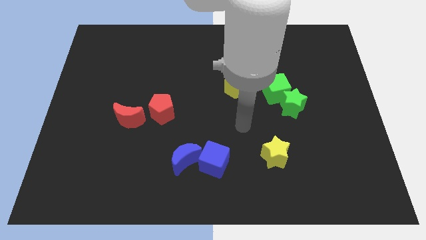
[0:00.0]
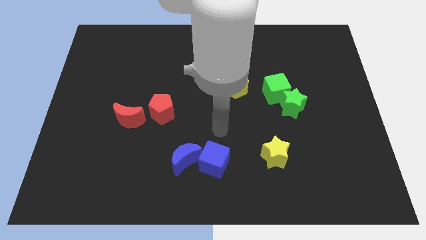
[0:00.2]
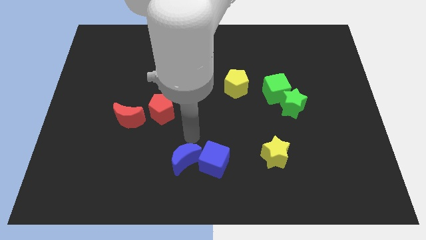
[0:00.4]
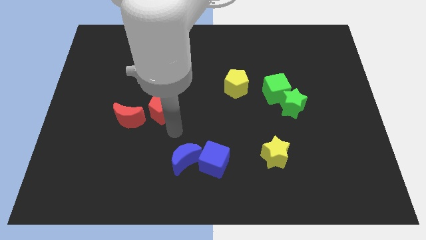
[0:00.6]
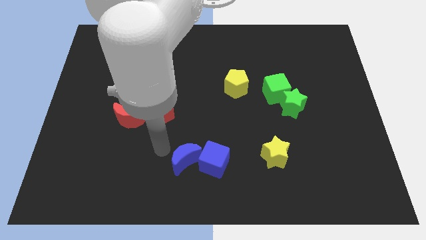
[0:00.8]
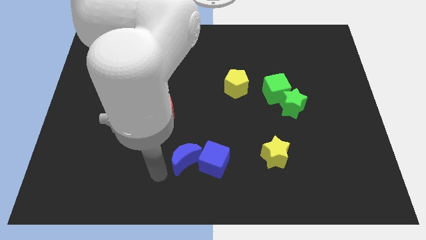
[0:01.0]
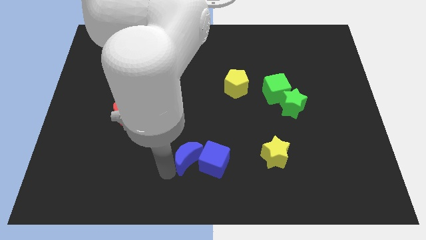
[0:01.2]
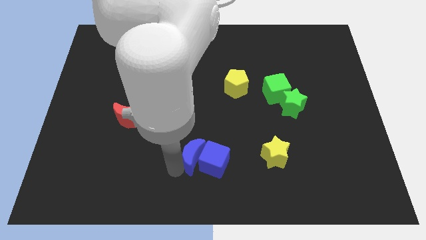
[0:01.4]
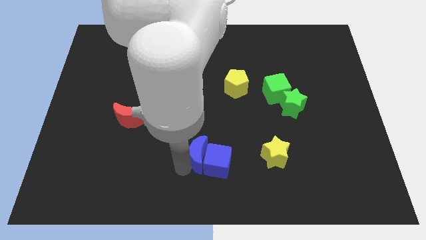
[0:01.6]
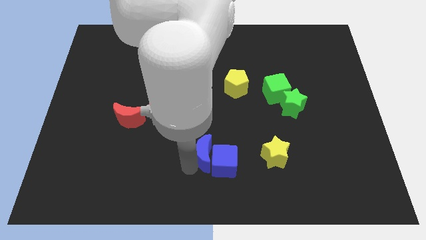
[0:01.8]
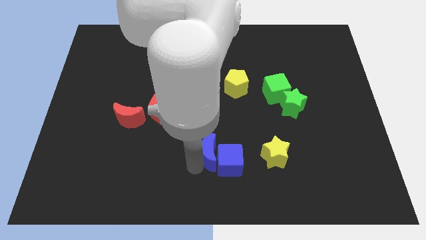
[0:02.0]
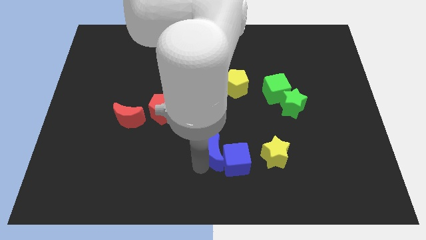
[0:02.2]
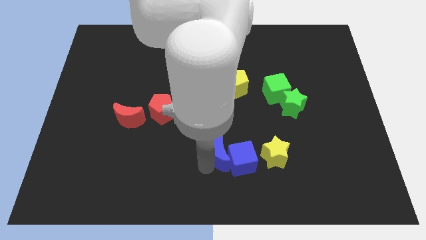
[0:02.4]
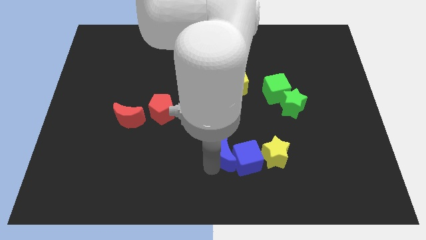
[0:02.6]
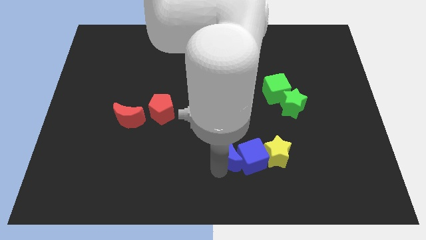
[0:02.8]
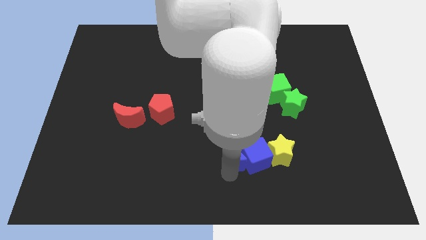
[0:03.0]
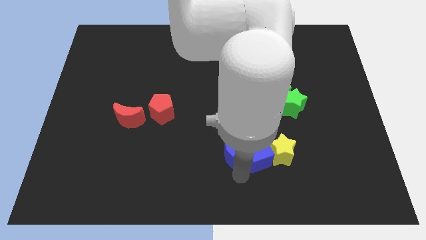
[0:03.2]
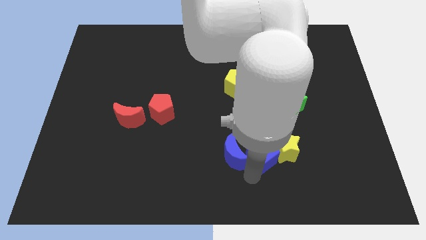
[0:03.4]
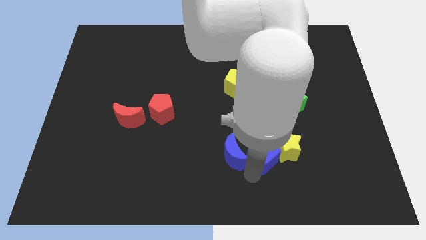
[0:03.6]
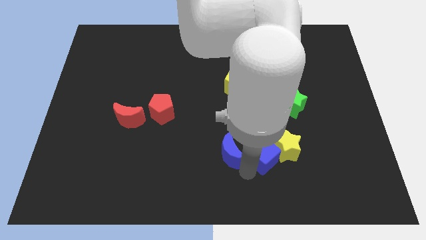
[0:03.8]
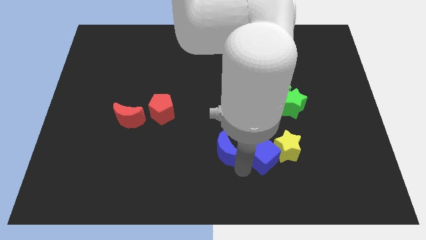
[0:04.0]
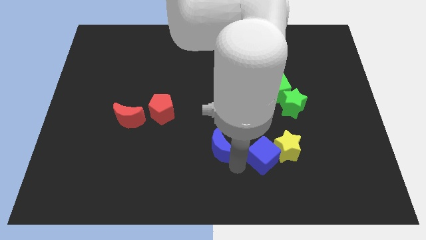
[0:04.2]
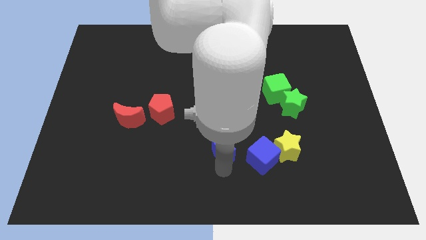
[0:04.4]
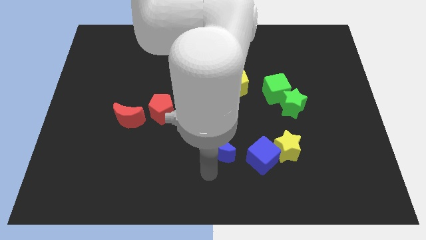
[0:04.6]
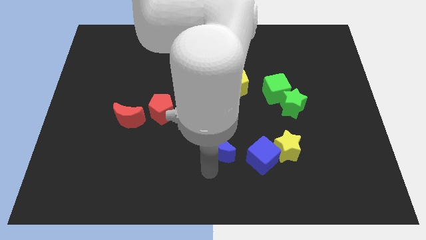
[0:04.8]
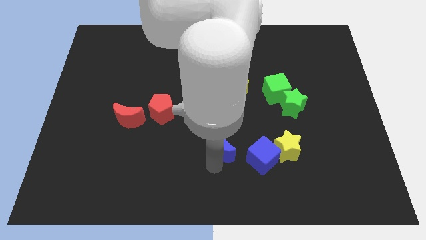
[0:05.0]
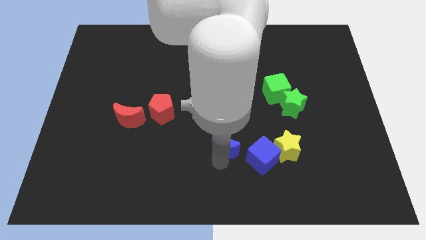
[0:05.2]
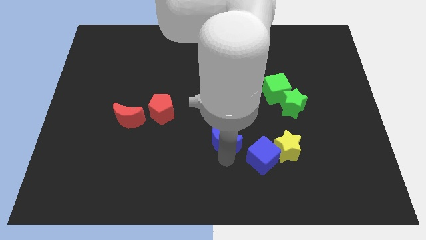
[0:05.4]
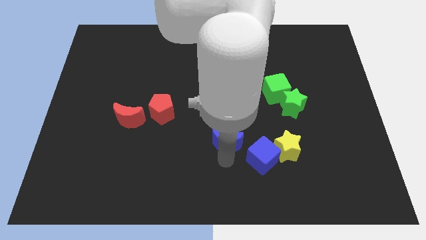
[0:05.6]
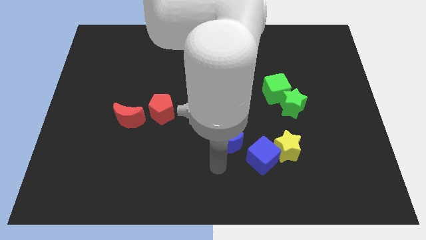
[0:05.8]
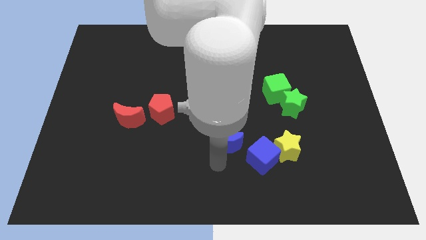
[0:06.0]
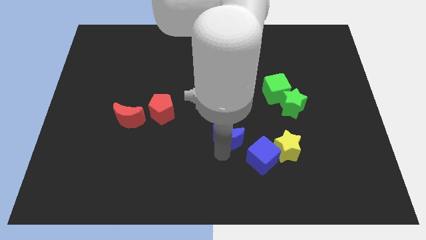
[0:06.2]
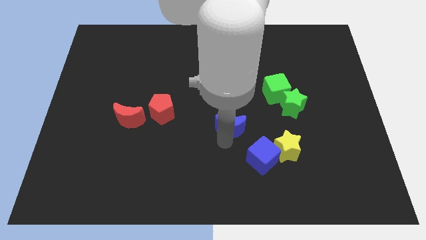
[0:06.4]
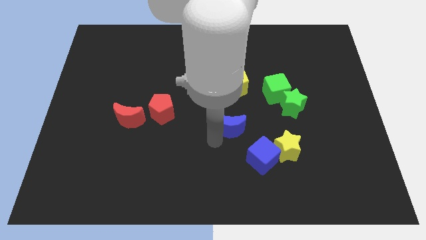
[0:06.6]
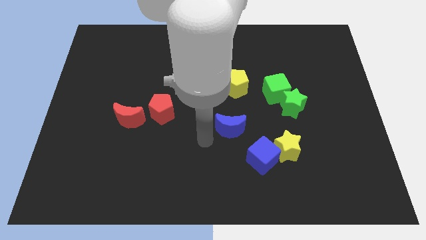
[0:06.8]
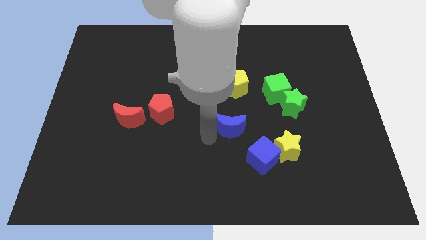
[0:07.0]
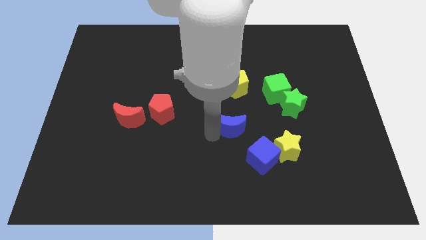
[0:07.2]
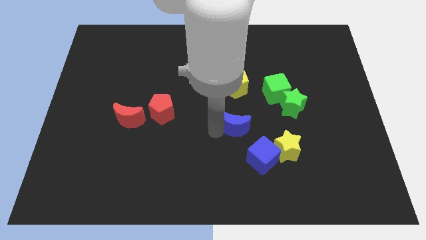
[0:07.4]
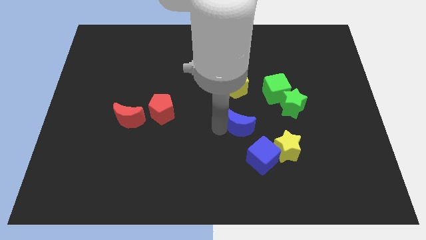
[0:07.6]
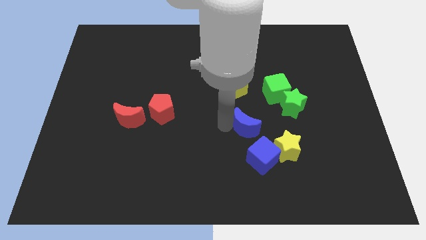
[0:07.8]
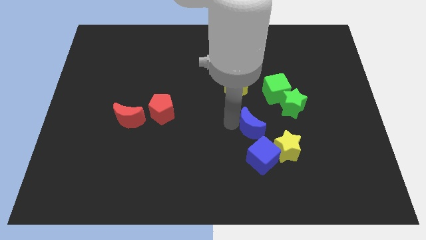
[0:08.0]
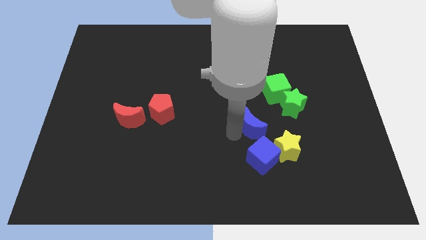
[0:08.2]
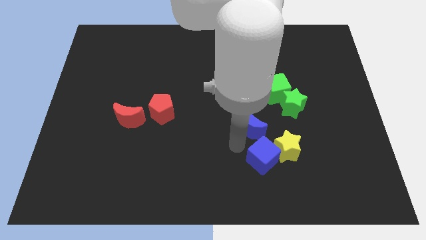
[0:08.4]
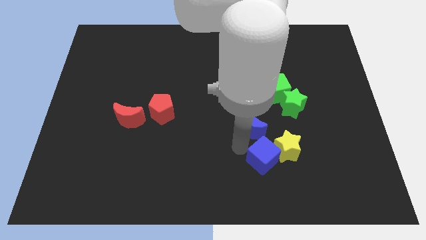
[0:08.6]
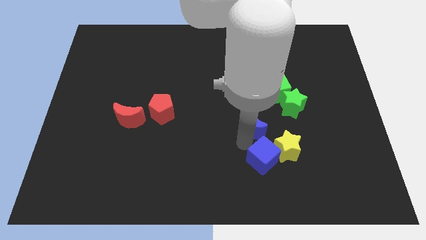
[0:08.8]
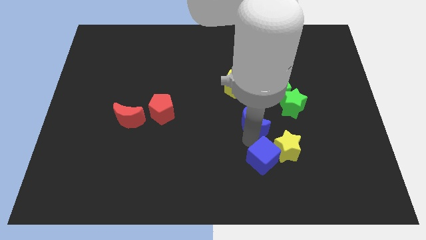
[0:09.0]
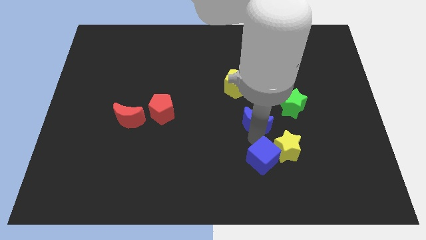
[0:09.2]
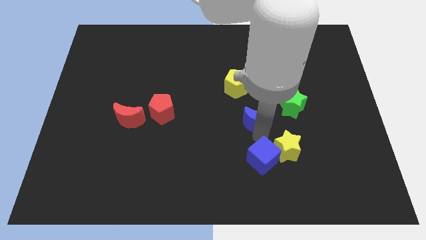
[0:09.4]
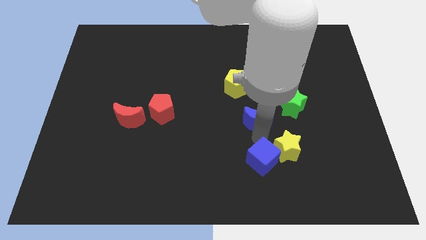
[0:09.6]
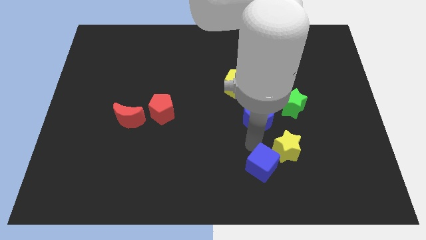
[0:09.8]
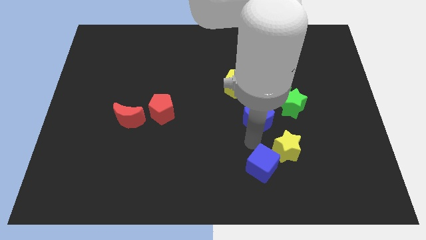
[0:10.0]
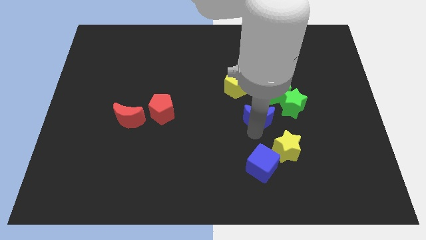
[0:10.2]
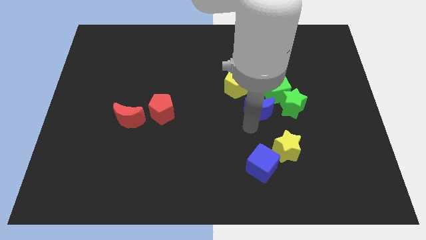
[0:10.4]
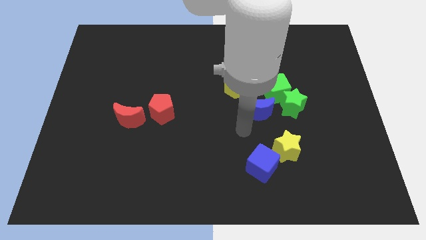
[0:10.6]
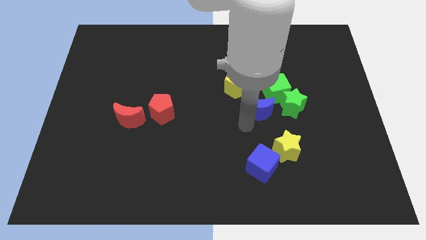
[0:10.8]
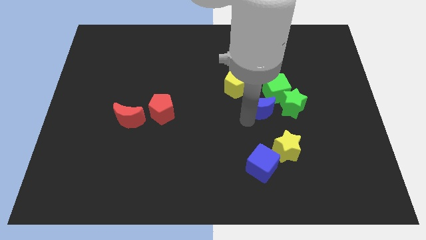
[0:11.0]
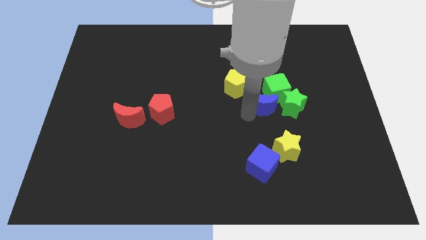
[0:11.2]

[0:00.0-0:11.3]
push the blue moon towards the green cube

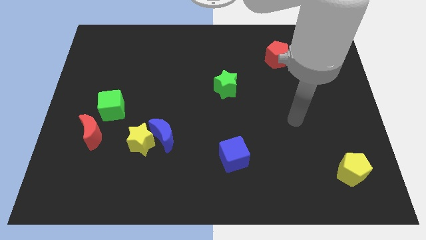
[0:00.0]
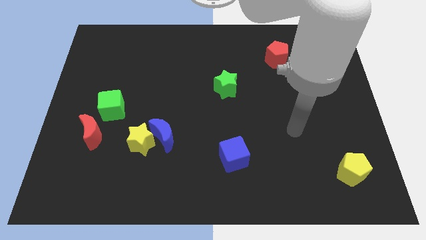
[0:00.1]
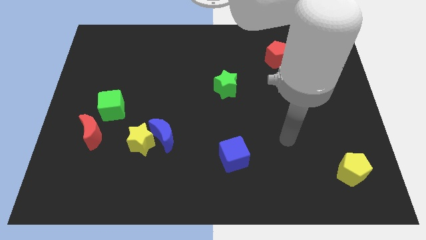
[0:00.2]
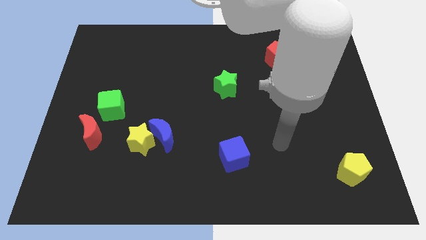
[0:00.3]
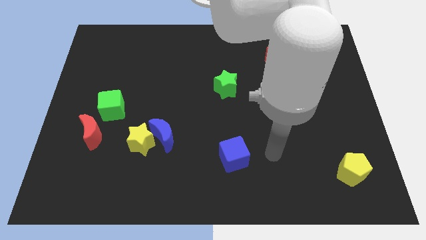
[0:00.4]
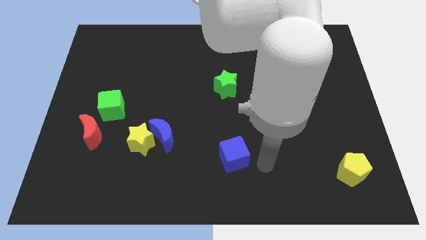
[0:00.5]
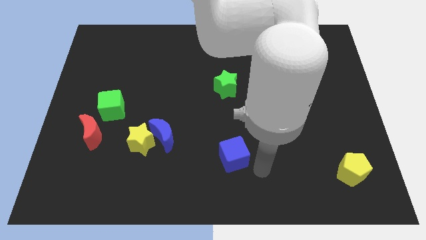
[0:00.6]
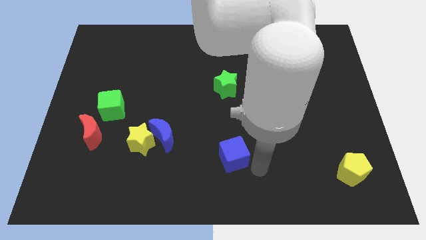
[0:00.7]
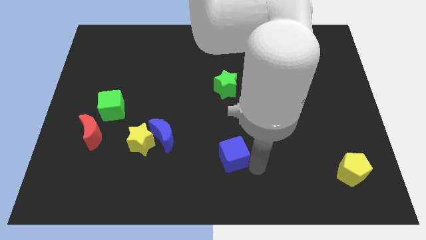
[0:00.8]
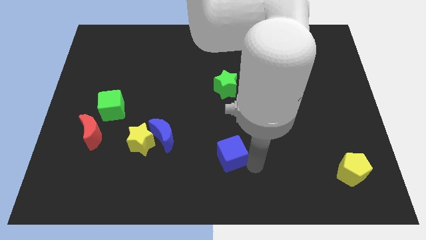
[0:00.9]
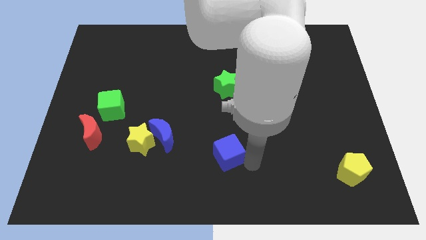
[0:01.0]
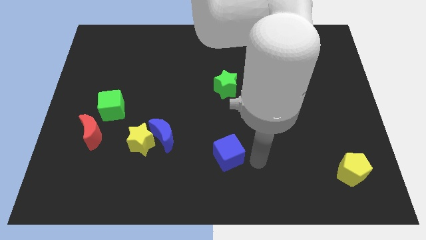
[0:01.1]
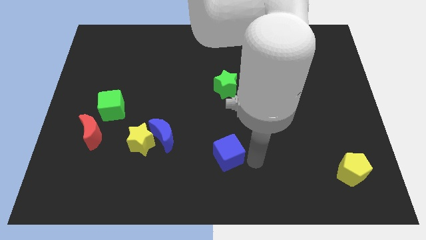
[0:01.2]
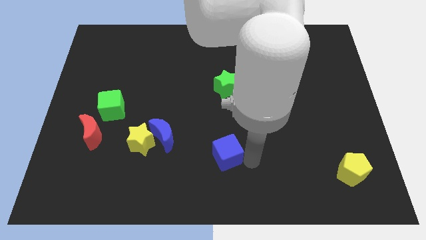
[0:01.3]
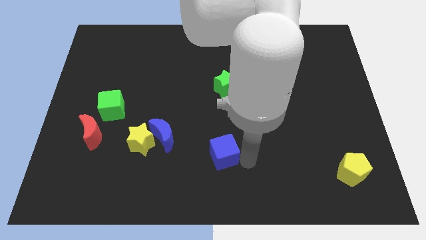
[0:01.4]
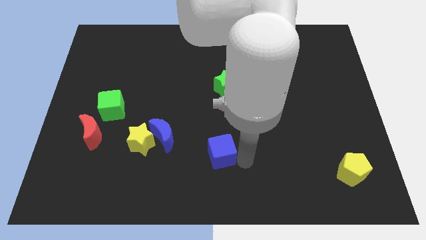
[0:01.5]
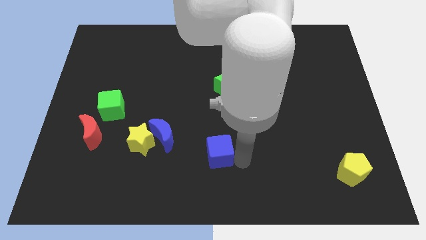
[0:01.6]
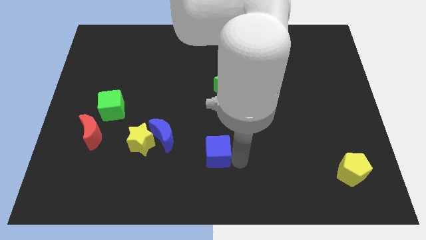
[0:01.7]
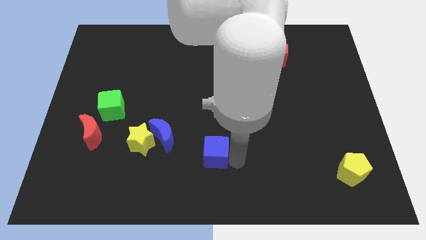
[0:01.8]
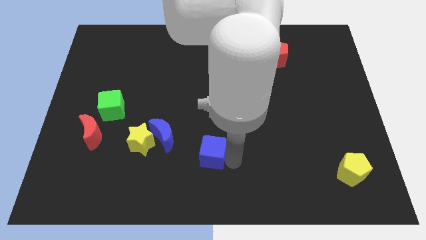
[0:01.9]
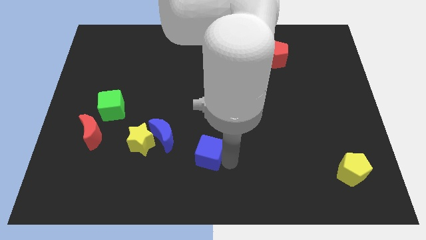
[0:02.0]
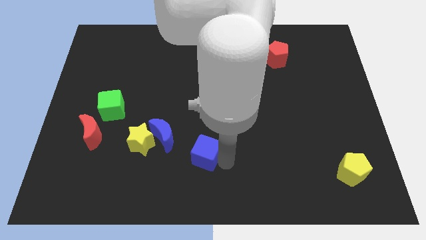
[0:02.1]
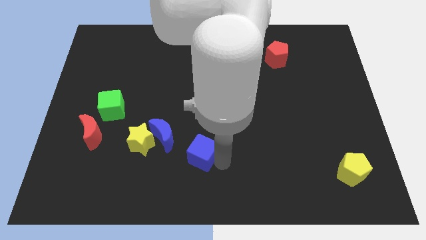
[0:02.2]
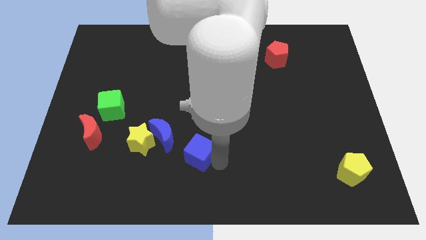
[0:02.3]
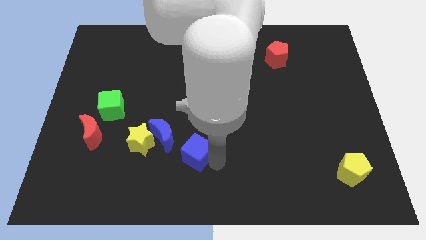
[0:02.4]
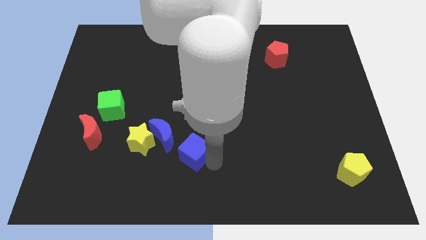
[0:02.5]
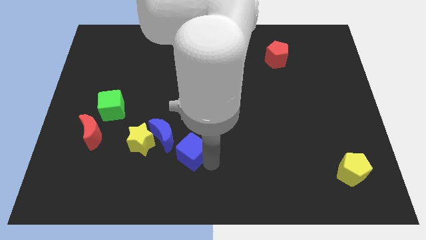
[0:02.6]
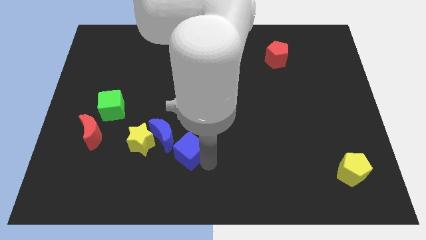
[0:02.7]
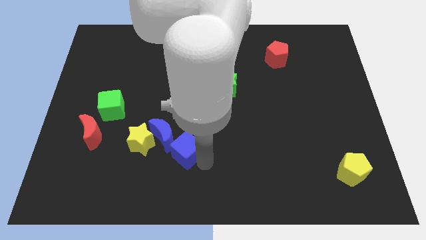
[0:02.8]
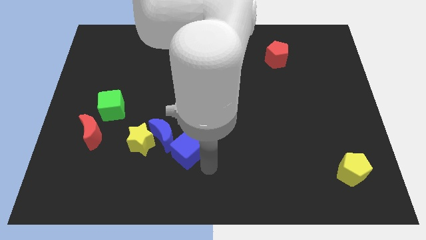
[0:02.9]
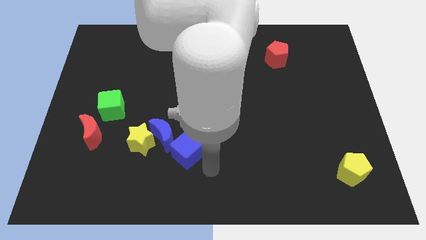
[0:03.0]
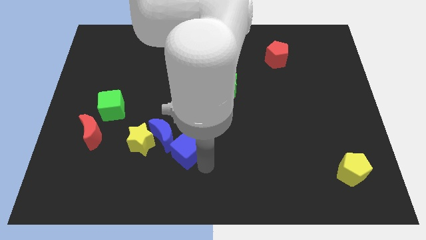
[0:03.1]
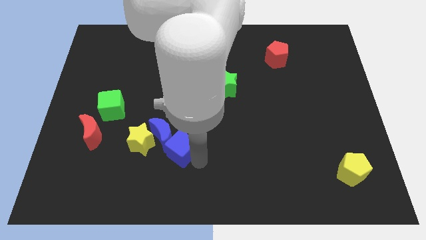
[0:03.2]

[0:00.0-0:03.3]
put the blue cube next to the blue moon
